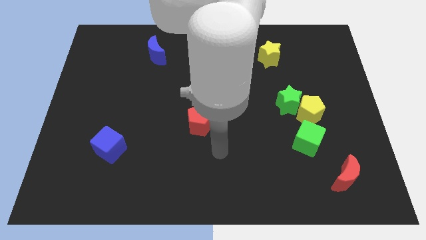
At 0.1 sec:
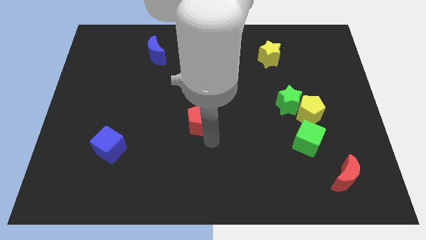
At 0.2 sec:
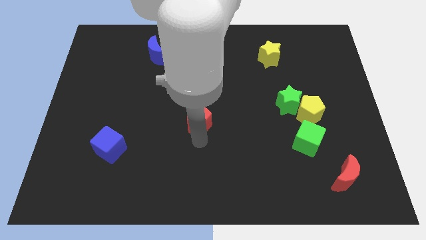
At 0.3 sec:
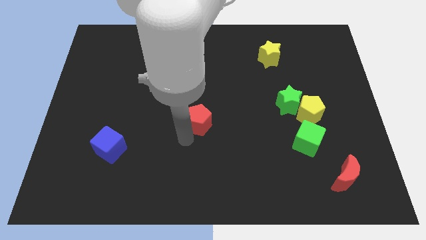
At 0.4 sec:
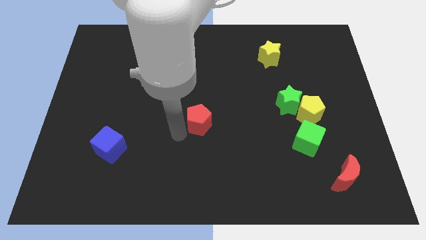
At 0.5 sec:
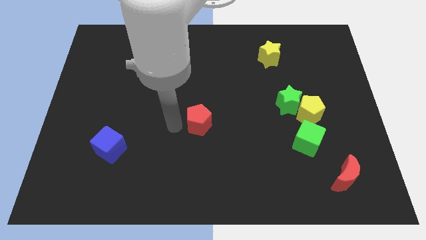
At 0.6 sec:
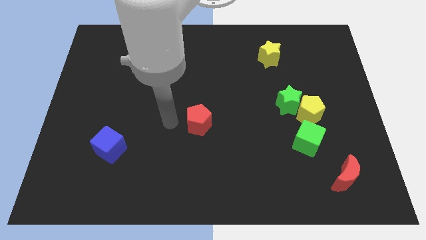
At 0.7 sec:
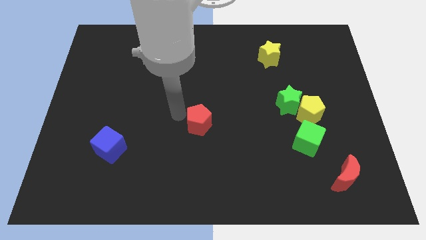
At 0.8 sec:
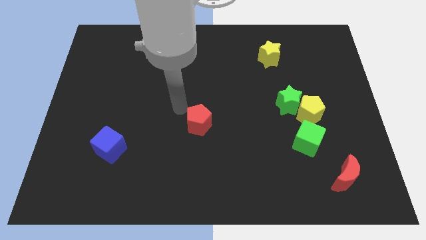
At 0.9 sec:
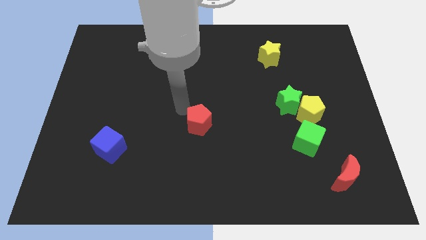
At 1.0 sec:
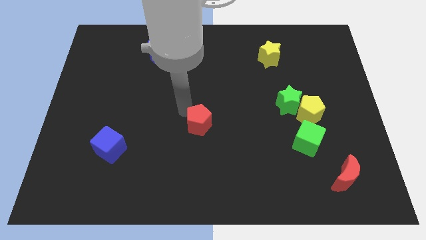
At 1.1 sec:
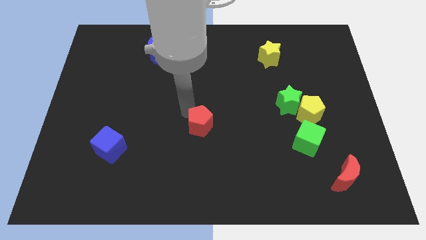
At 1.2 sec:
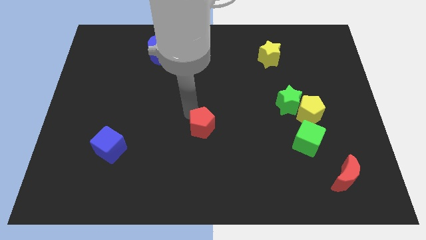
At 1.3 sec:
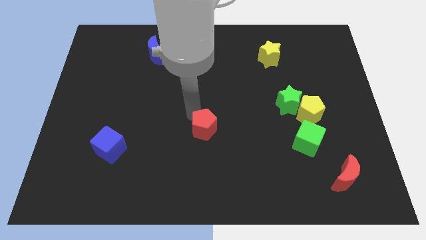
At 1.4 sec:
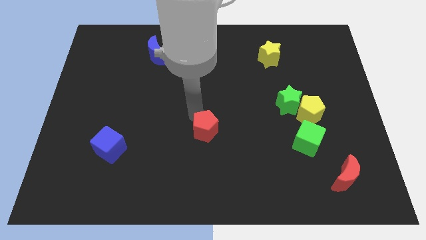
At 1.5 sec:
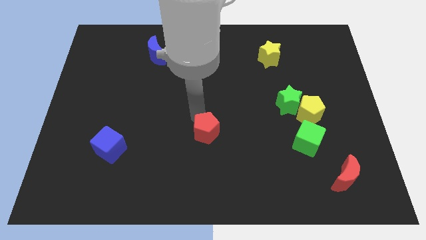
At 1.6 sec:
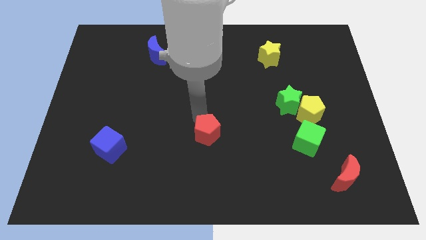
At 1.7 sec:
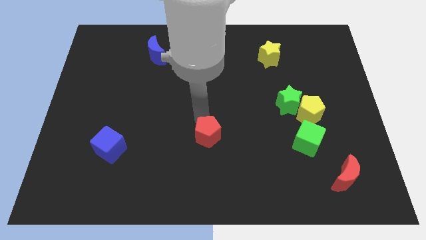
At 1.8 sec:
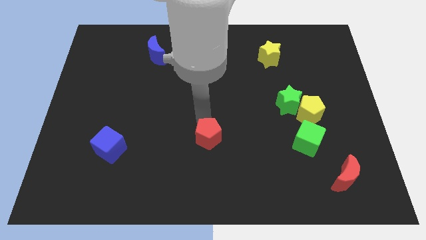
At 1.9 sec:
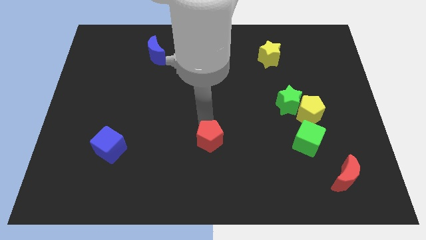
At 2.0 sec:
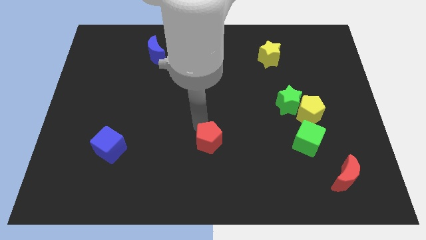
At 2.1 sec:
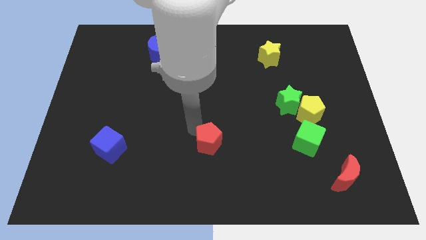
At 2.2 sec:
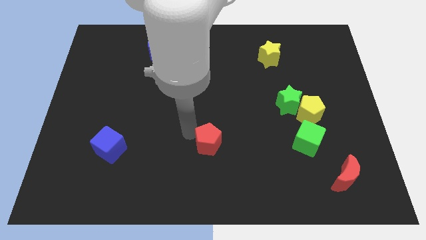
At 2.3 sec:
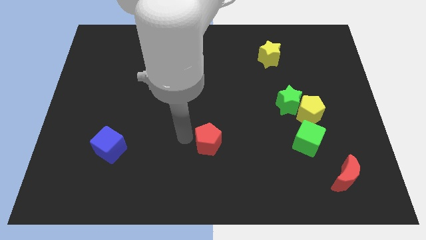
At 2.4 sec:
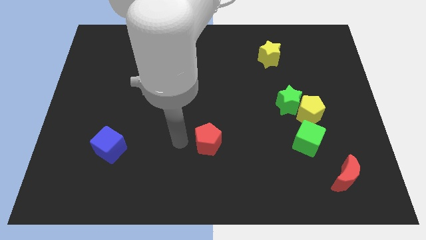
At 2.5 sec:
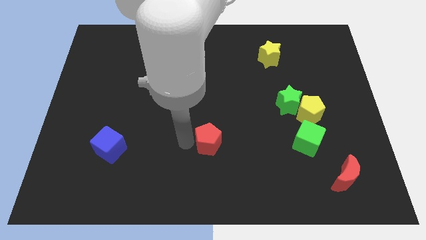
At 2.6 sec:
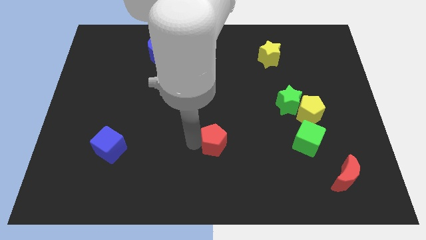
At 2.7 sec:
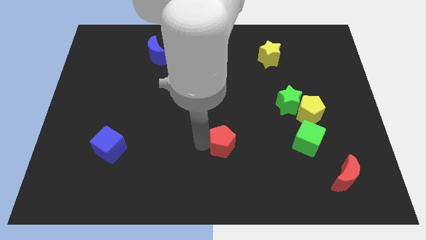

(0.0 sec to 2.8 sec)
slightly slide the red pentagon down and right diagonally

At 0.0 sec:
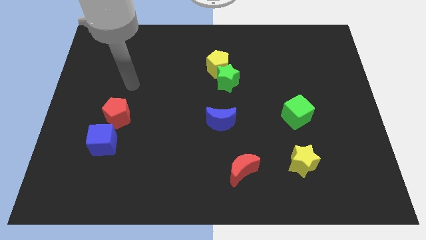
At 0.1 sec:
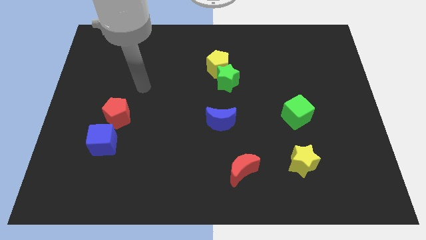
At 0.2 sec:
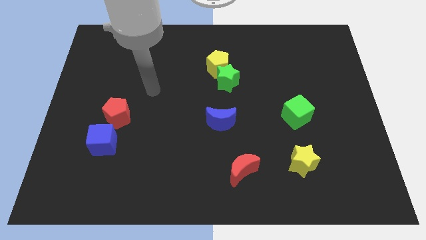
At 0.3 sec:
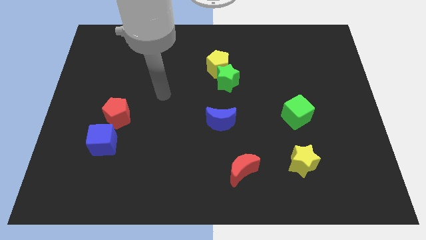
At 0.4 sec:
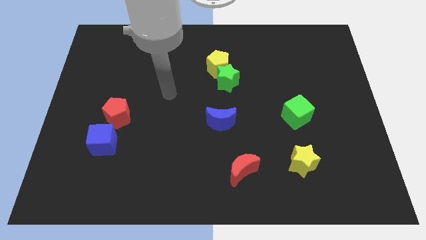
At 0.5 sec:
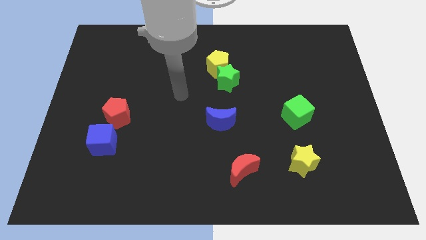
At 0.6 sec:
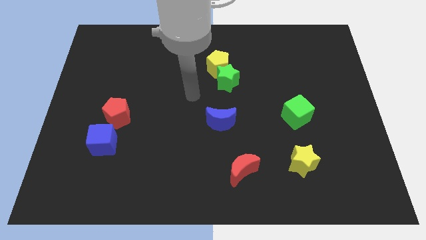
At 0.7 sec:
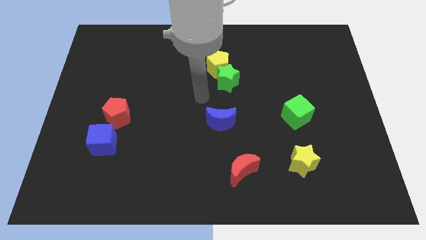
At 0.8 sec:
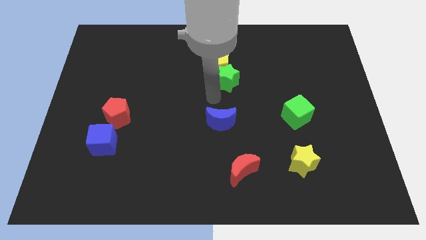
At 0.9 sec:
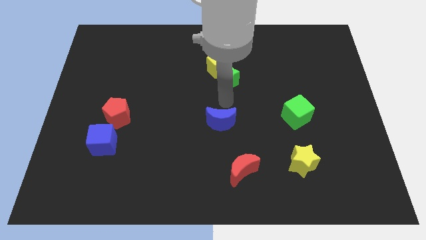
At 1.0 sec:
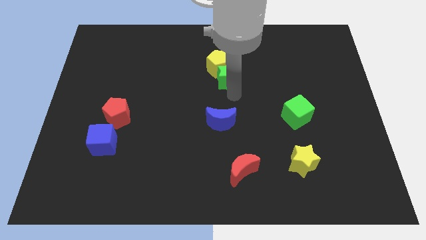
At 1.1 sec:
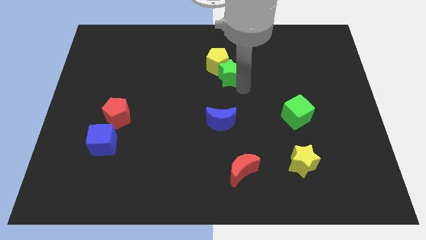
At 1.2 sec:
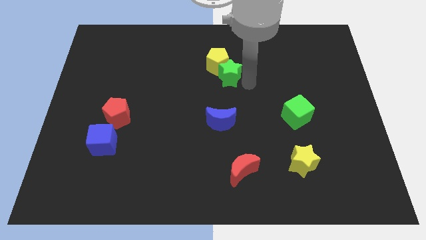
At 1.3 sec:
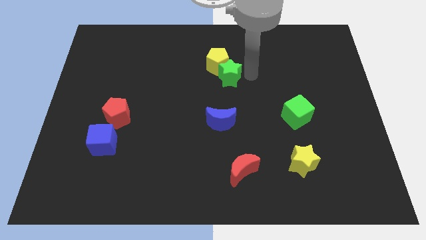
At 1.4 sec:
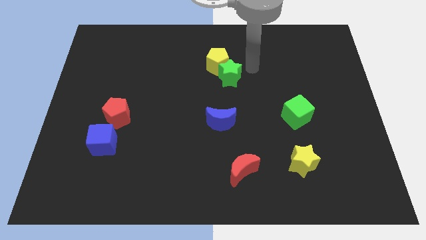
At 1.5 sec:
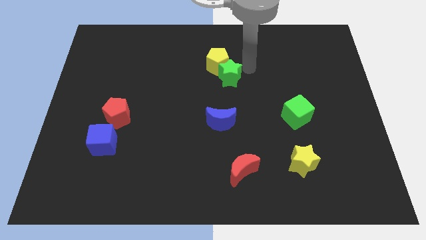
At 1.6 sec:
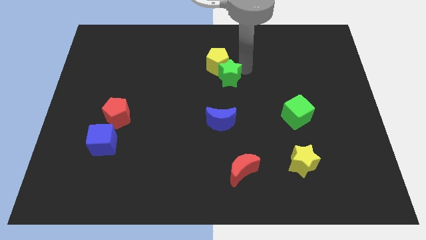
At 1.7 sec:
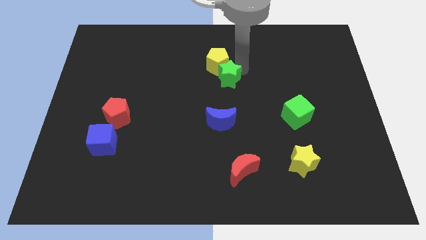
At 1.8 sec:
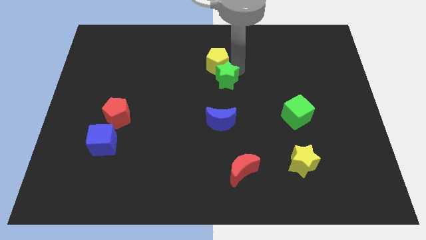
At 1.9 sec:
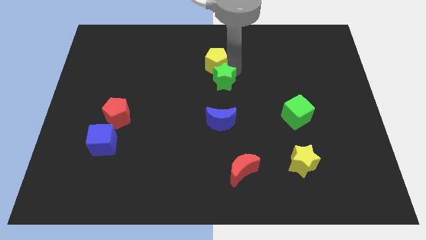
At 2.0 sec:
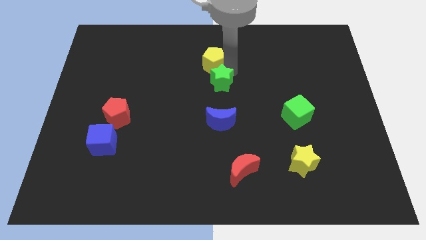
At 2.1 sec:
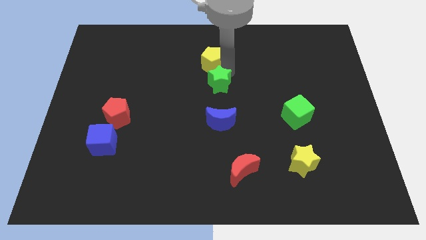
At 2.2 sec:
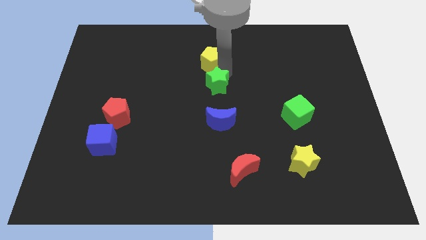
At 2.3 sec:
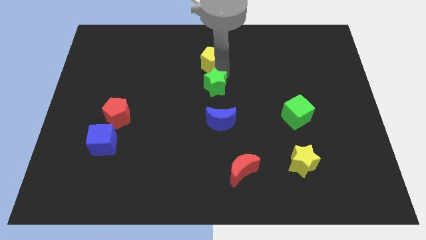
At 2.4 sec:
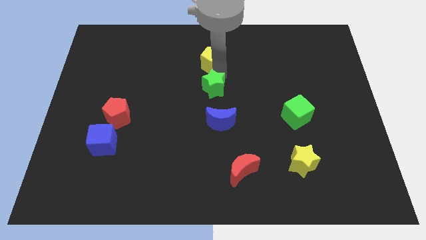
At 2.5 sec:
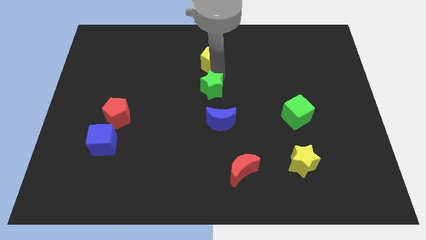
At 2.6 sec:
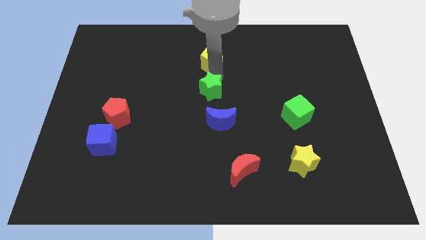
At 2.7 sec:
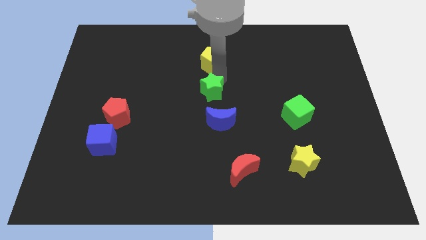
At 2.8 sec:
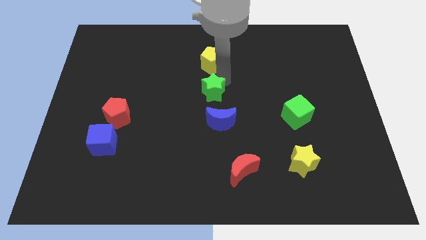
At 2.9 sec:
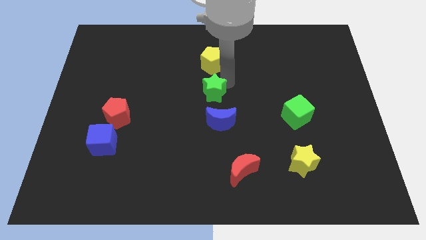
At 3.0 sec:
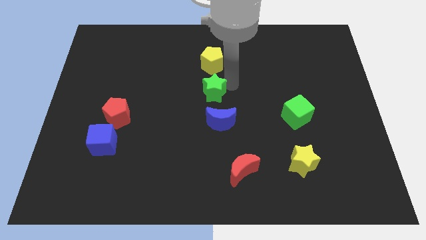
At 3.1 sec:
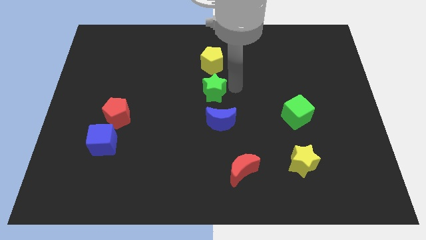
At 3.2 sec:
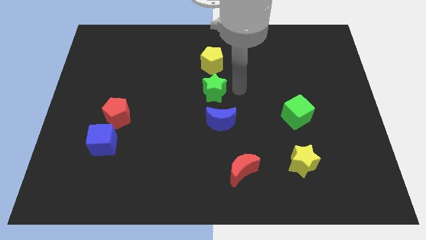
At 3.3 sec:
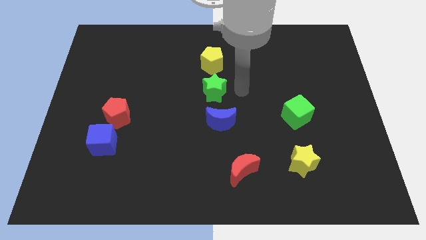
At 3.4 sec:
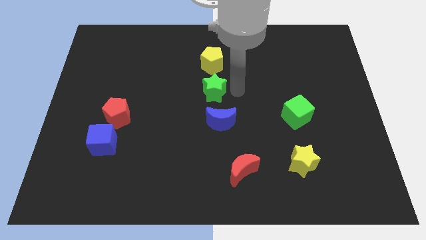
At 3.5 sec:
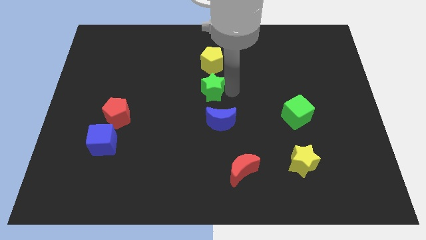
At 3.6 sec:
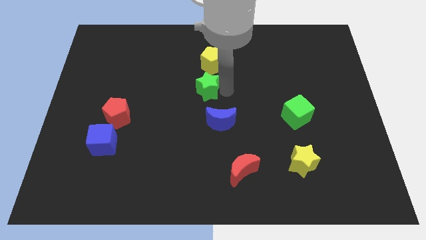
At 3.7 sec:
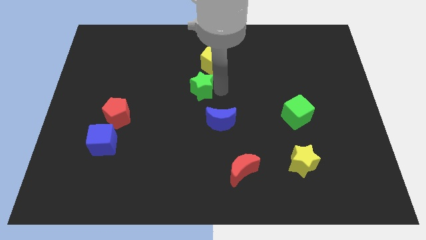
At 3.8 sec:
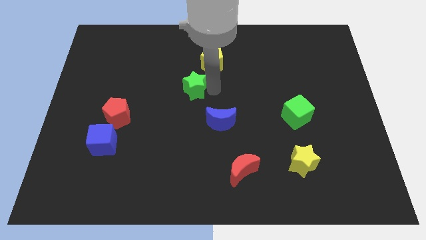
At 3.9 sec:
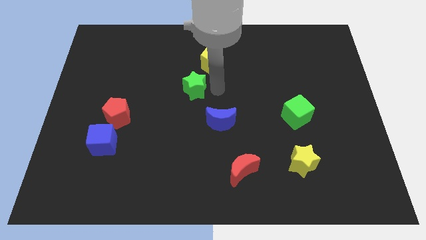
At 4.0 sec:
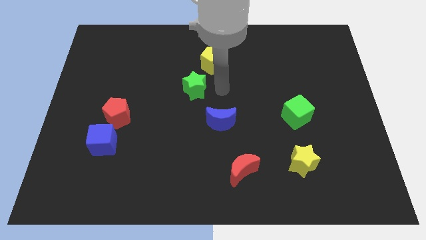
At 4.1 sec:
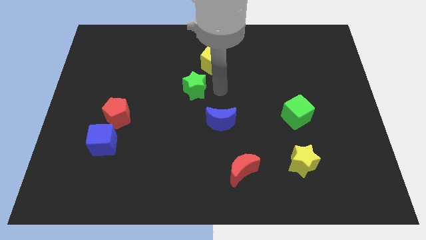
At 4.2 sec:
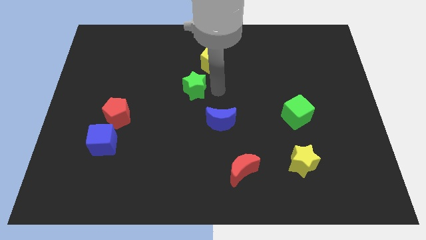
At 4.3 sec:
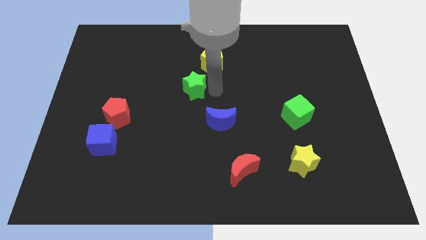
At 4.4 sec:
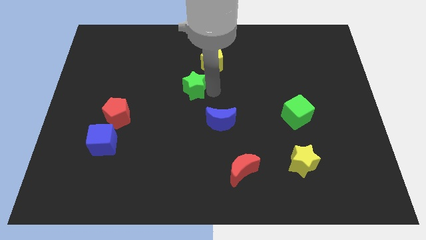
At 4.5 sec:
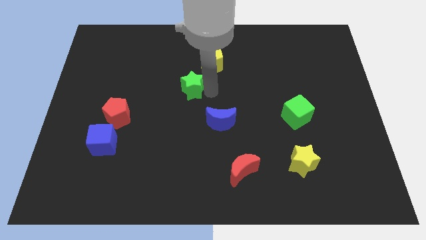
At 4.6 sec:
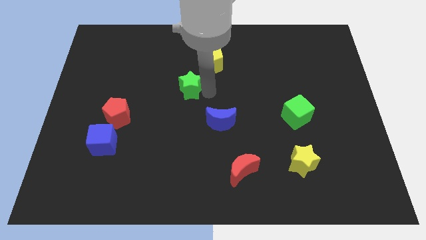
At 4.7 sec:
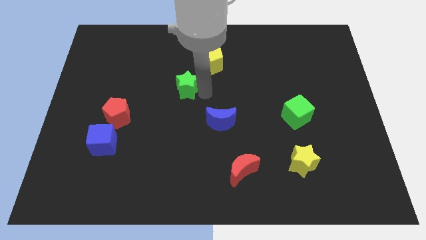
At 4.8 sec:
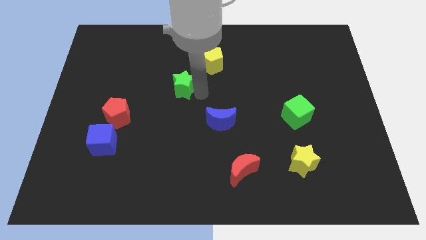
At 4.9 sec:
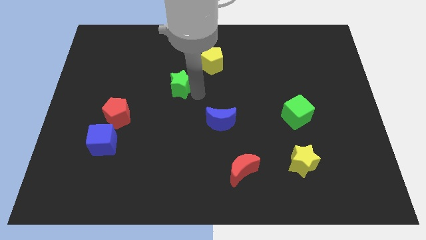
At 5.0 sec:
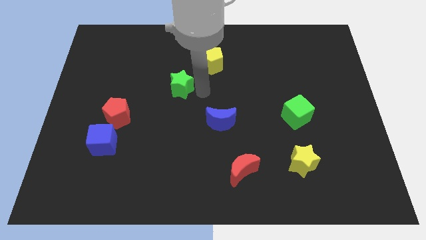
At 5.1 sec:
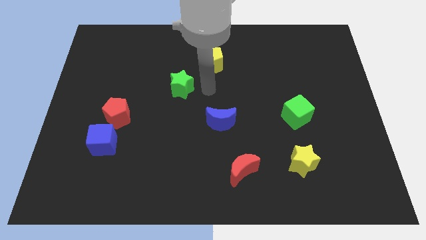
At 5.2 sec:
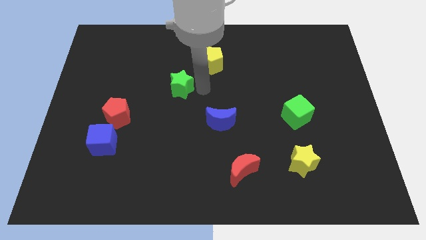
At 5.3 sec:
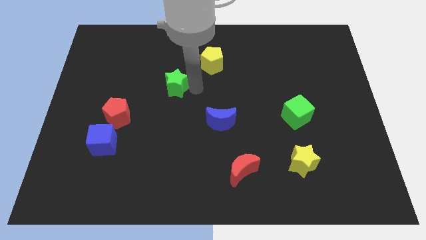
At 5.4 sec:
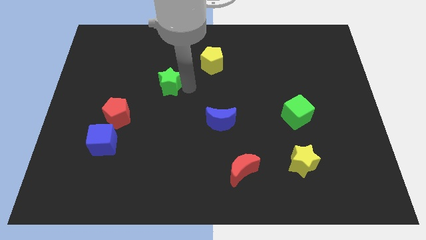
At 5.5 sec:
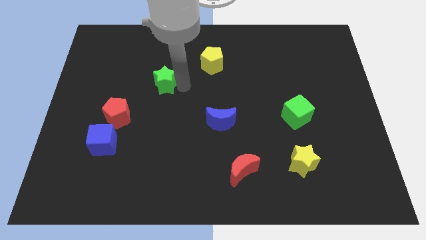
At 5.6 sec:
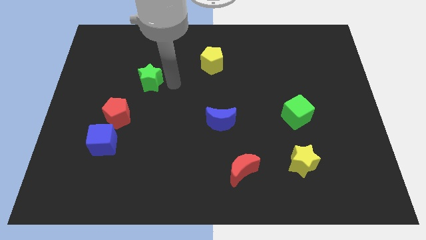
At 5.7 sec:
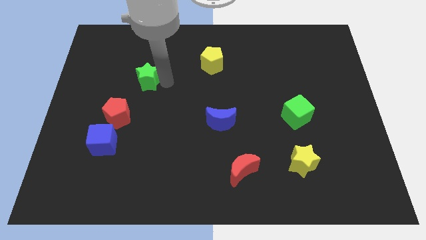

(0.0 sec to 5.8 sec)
move the green star left
